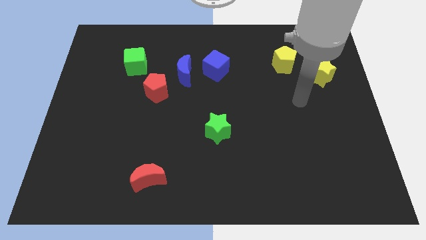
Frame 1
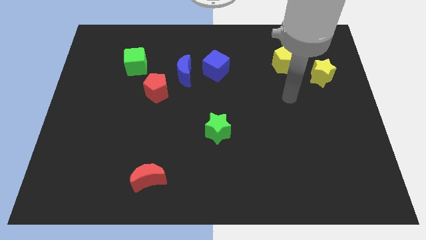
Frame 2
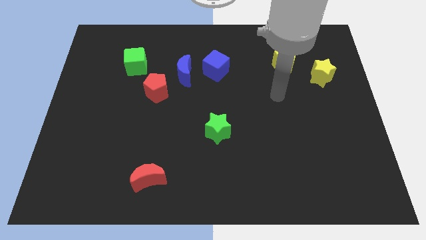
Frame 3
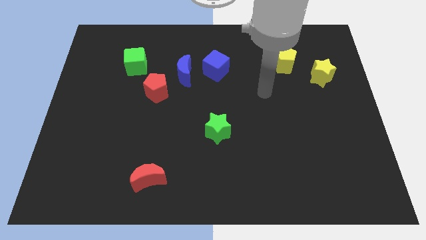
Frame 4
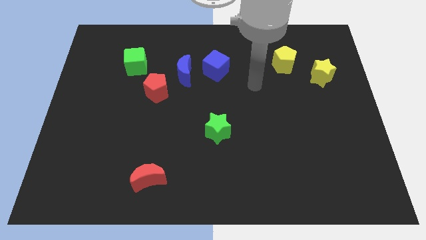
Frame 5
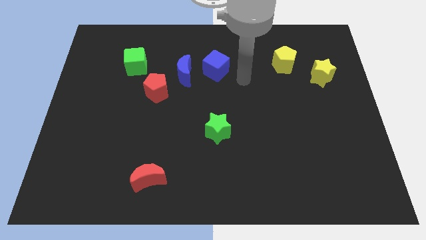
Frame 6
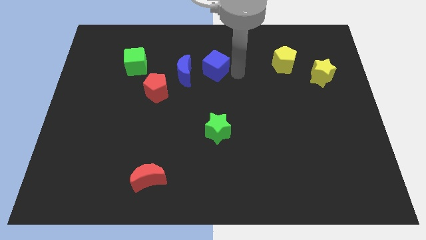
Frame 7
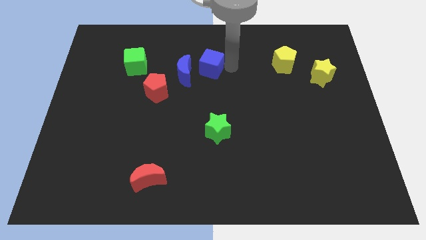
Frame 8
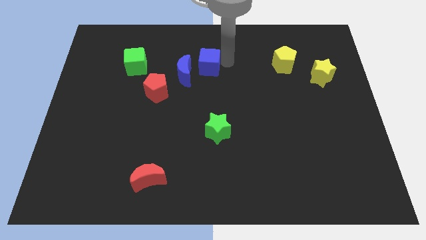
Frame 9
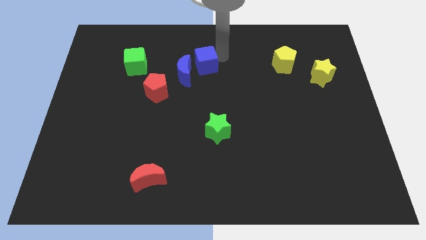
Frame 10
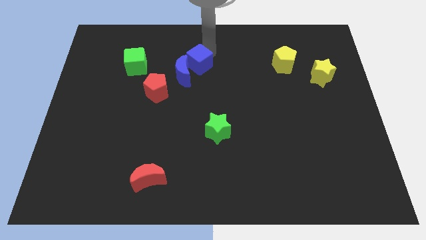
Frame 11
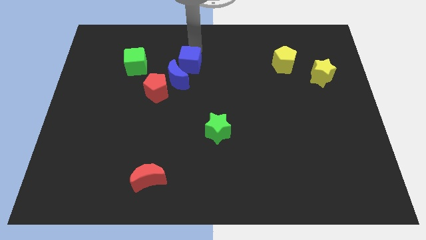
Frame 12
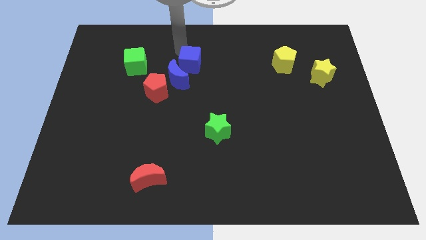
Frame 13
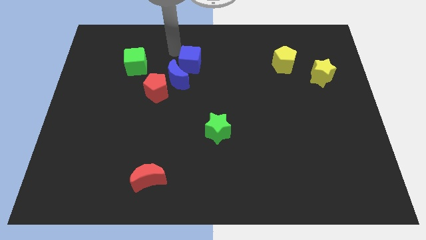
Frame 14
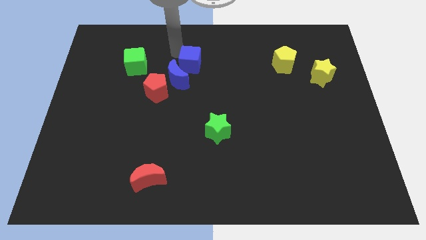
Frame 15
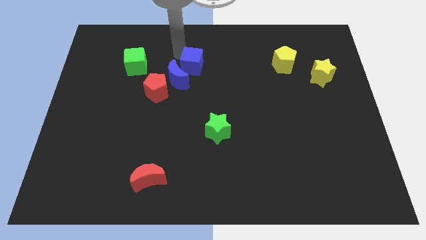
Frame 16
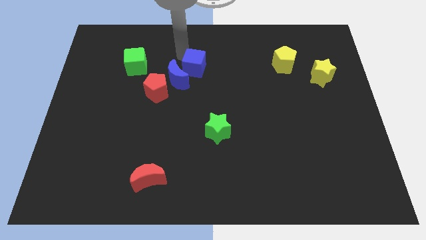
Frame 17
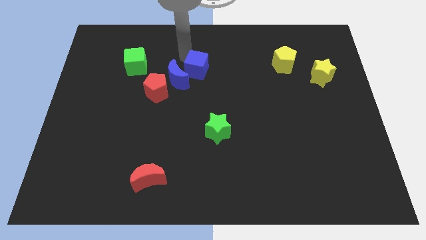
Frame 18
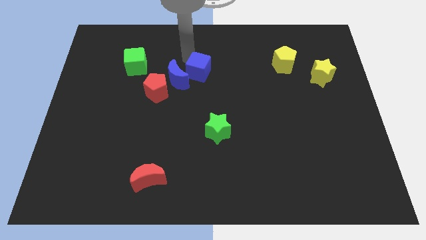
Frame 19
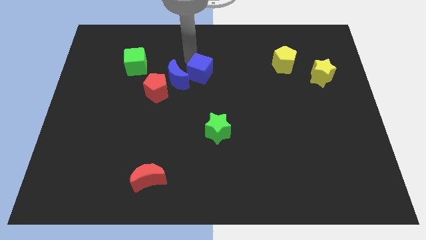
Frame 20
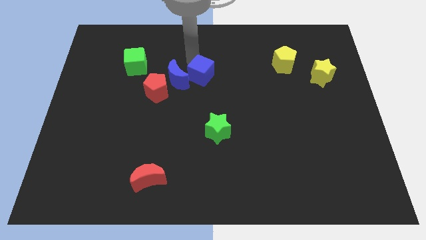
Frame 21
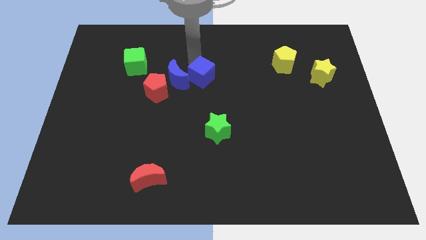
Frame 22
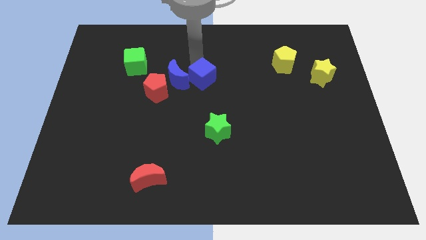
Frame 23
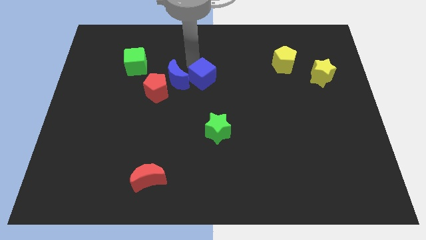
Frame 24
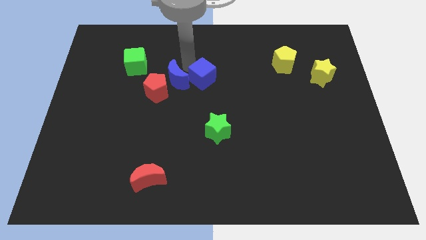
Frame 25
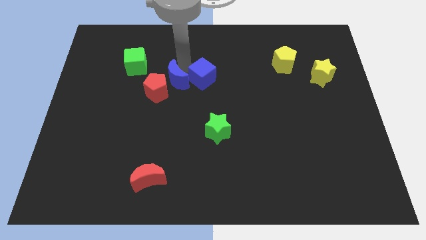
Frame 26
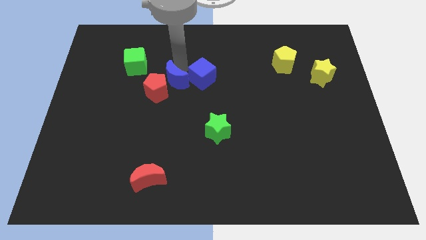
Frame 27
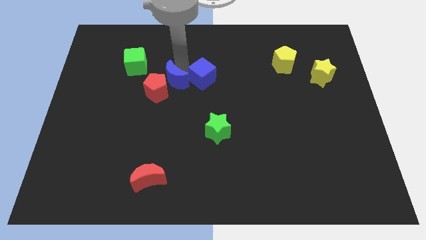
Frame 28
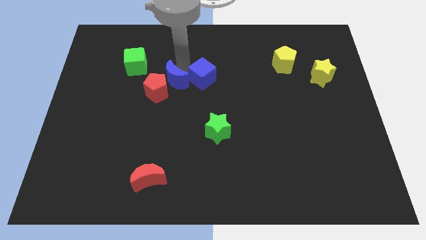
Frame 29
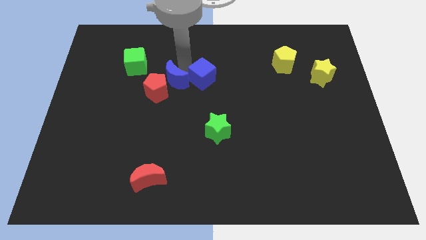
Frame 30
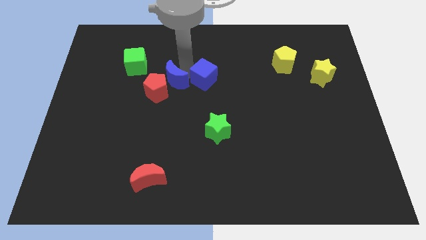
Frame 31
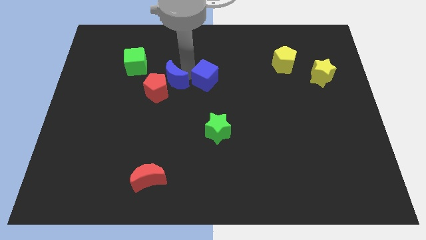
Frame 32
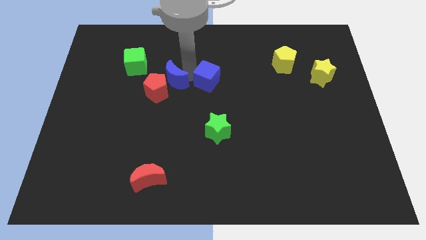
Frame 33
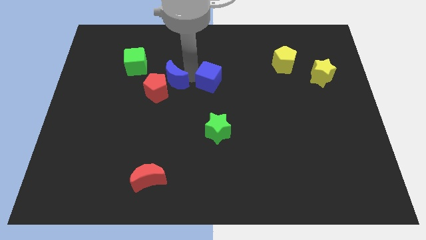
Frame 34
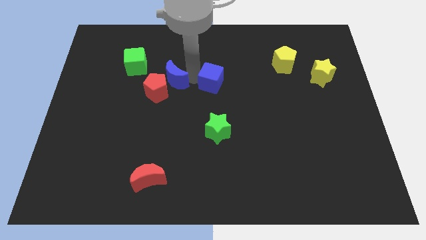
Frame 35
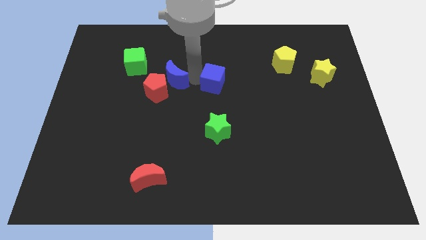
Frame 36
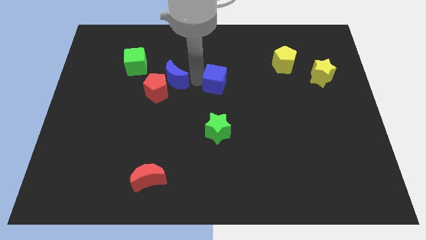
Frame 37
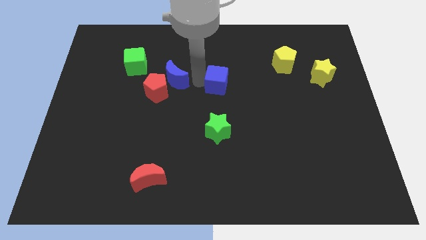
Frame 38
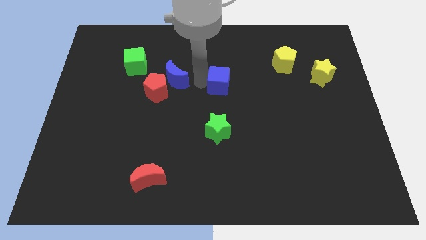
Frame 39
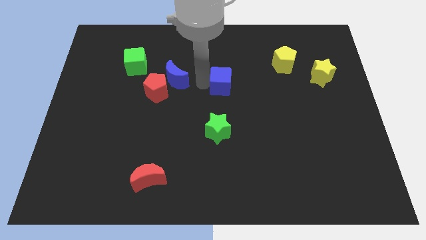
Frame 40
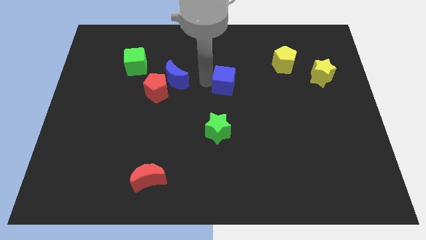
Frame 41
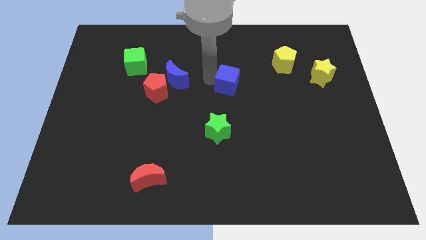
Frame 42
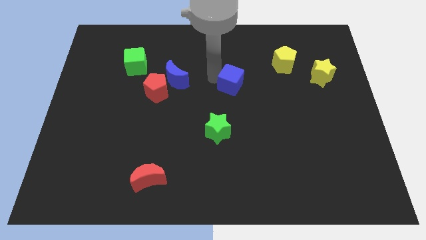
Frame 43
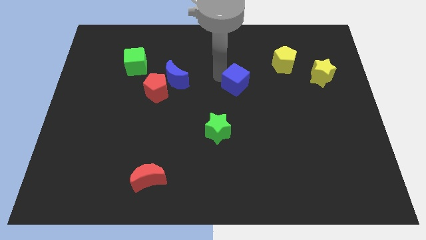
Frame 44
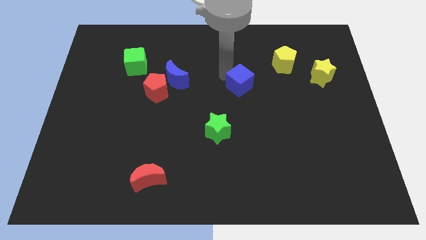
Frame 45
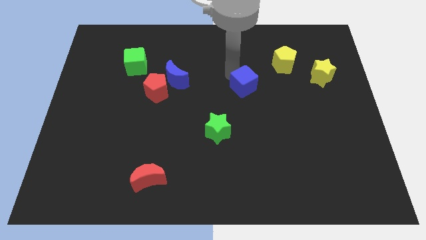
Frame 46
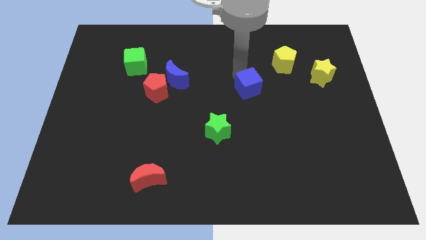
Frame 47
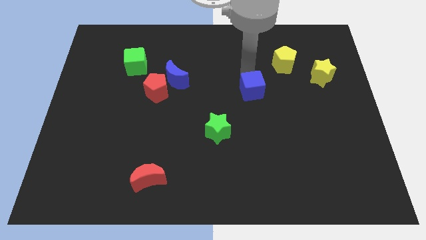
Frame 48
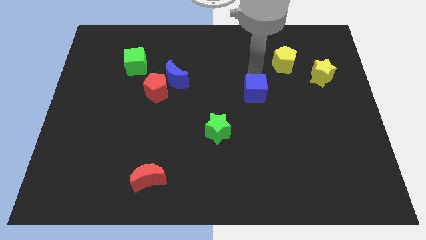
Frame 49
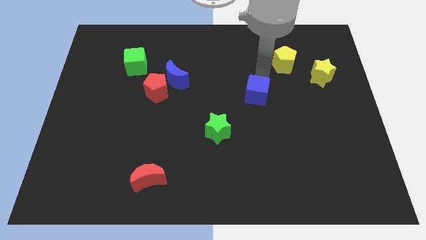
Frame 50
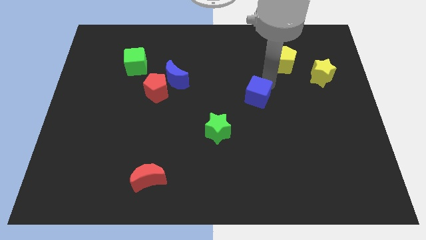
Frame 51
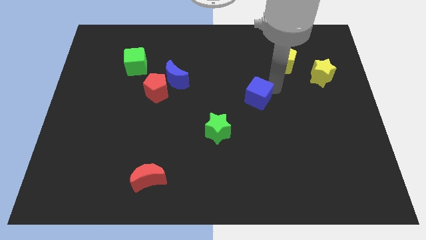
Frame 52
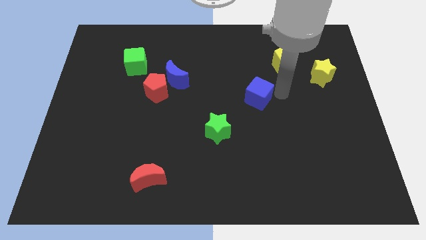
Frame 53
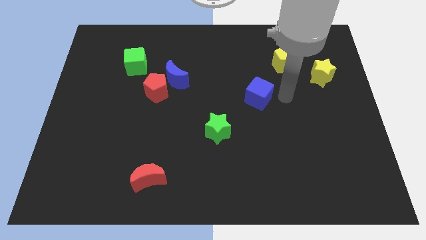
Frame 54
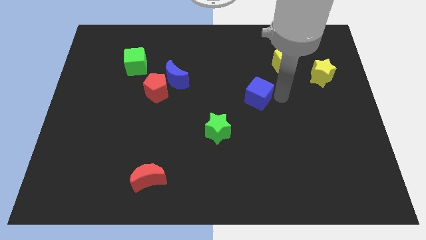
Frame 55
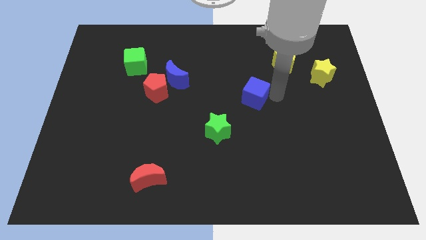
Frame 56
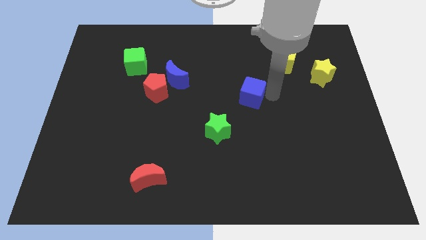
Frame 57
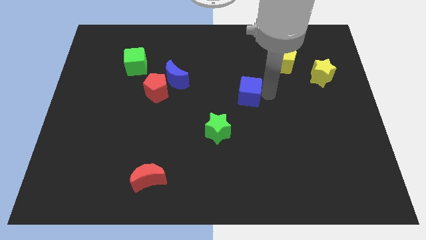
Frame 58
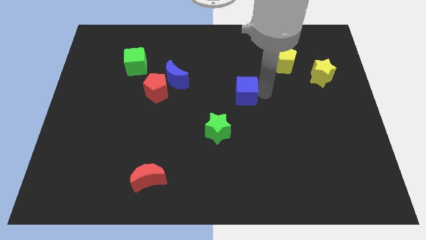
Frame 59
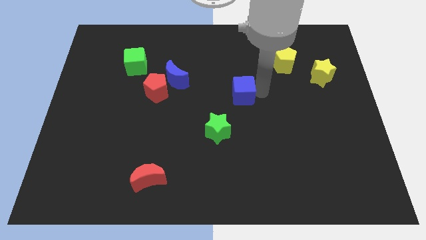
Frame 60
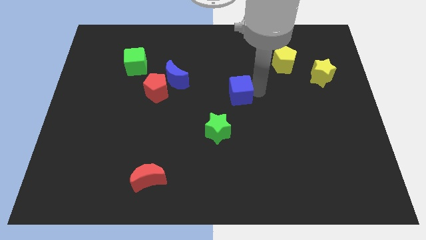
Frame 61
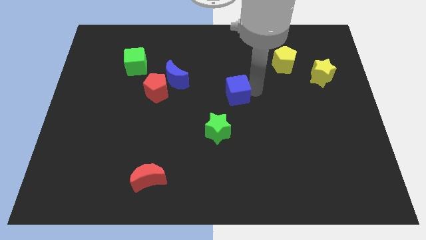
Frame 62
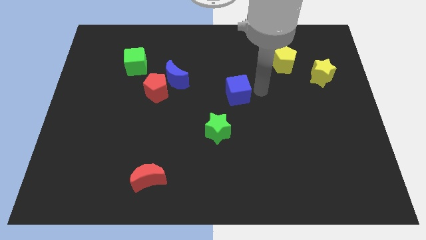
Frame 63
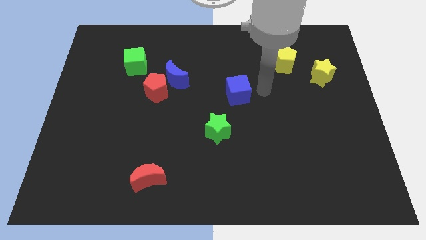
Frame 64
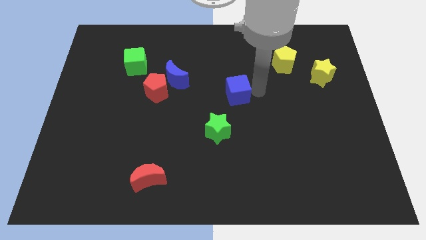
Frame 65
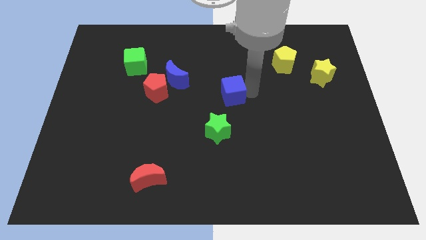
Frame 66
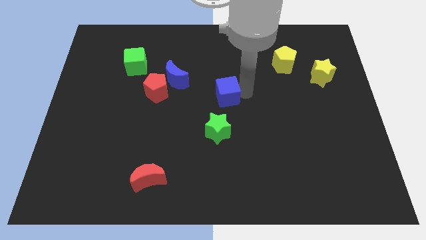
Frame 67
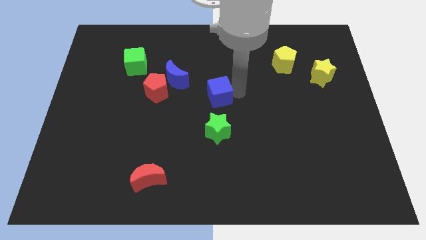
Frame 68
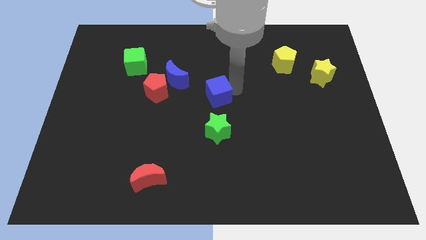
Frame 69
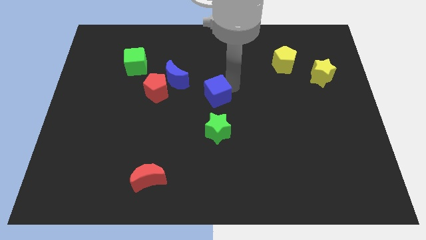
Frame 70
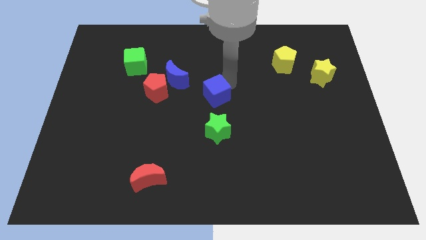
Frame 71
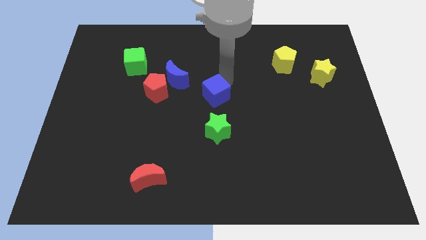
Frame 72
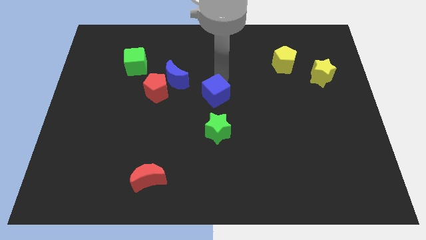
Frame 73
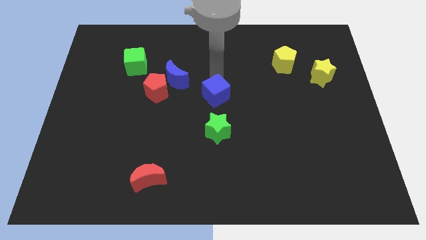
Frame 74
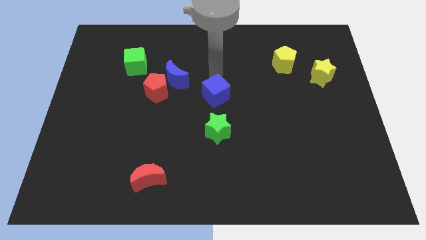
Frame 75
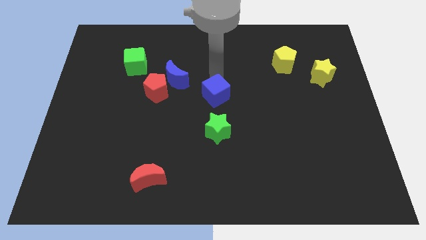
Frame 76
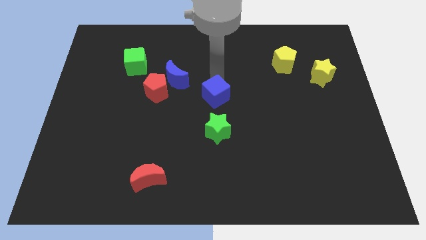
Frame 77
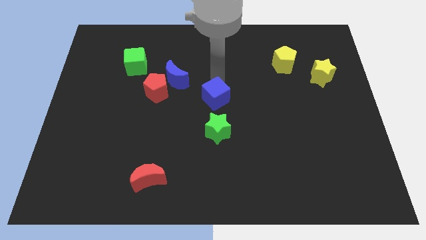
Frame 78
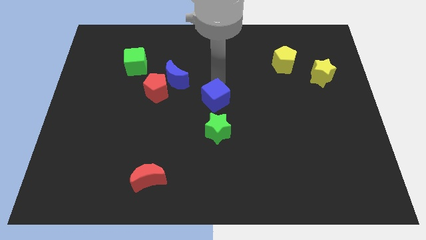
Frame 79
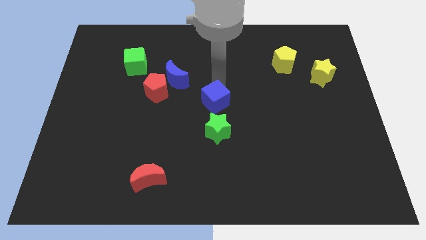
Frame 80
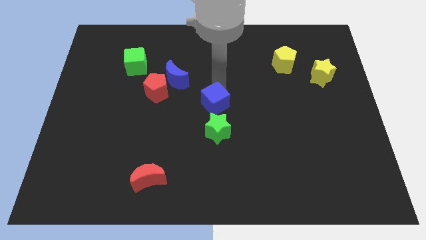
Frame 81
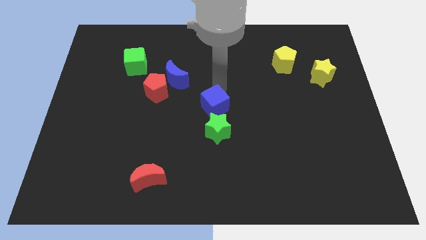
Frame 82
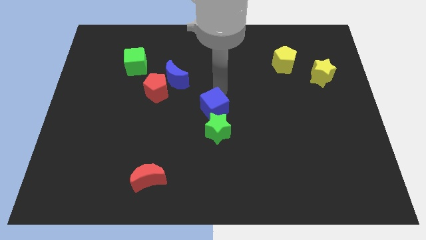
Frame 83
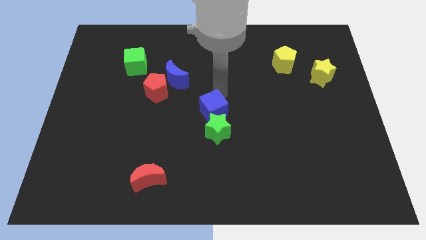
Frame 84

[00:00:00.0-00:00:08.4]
push the blue cube to the green star
